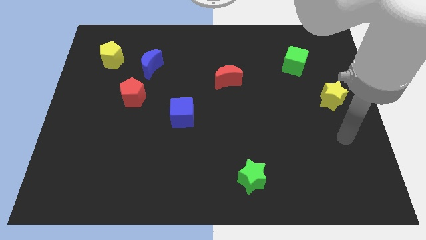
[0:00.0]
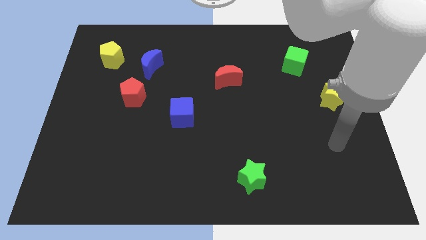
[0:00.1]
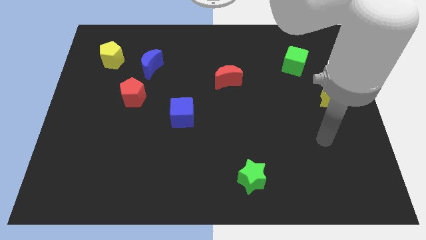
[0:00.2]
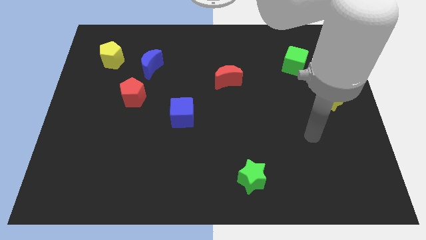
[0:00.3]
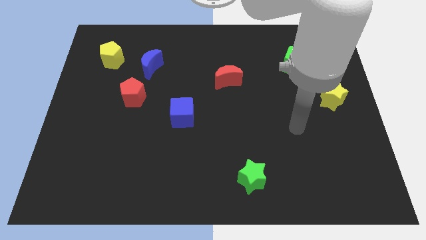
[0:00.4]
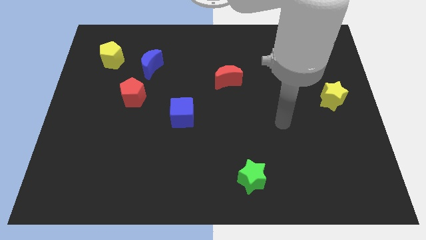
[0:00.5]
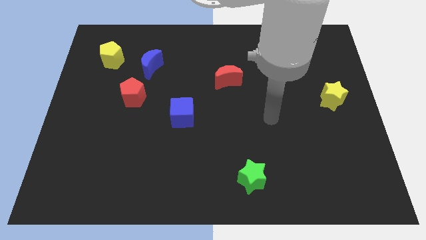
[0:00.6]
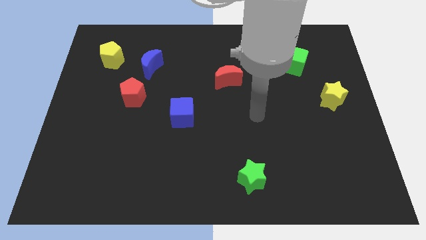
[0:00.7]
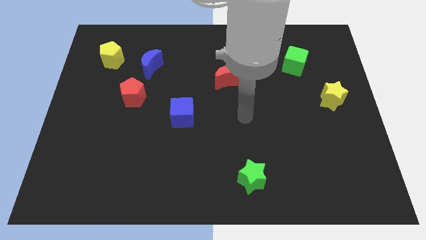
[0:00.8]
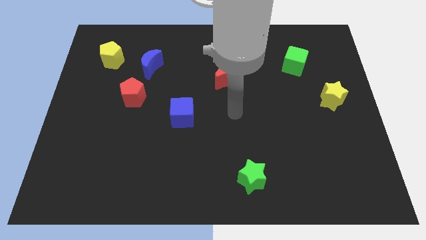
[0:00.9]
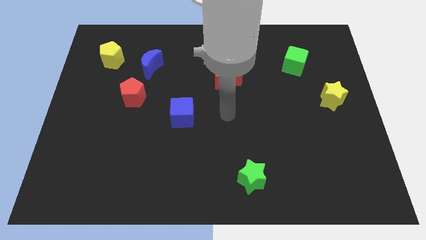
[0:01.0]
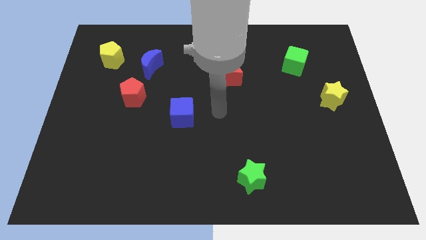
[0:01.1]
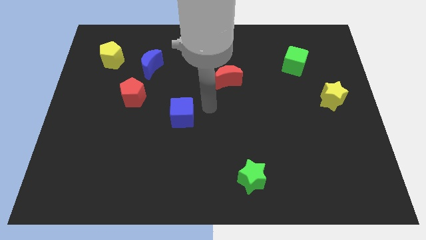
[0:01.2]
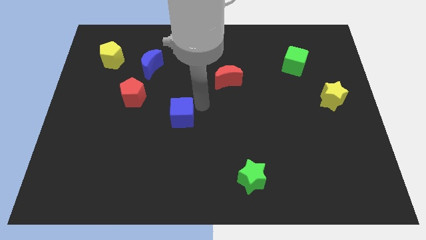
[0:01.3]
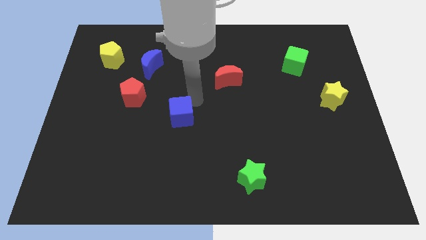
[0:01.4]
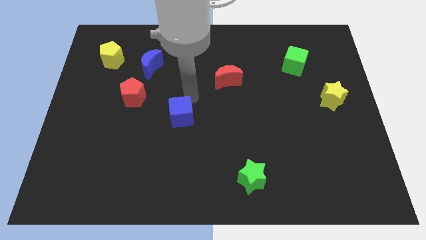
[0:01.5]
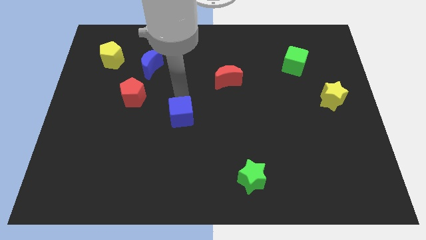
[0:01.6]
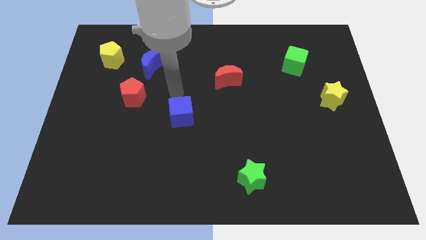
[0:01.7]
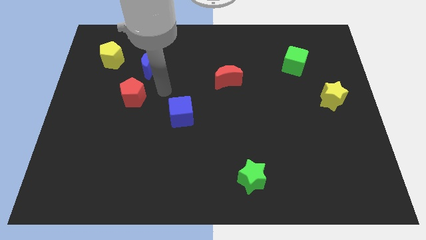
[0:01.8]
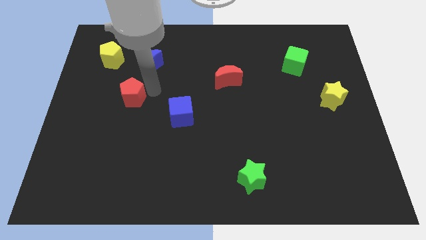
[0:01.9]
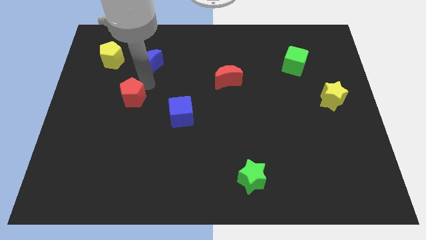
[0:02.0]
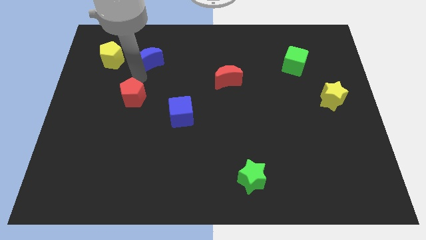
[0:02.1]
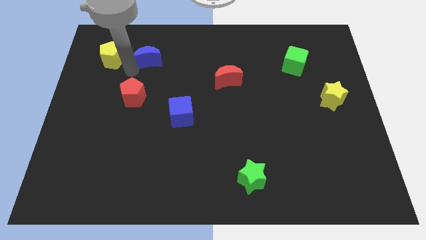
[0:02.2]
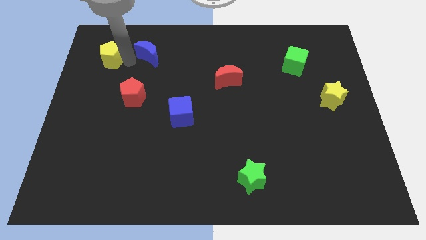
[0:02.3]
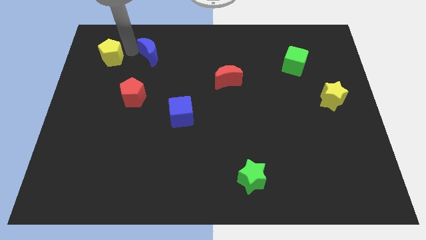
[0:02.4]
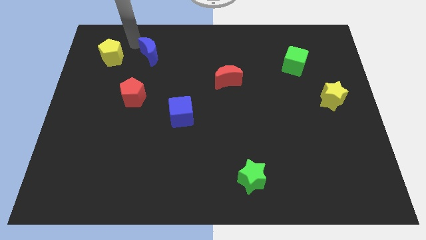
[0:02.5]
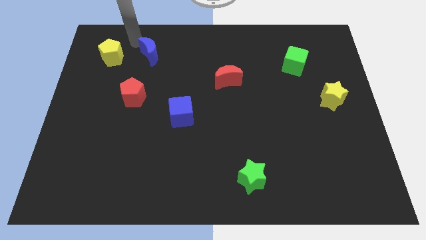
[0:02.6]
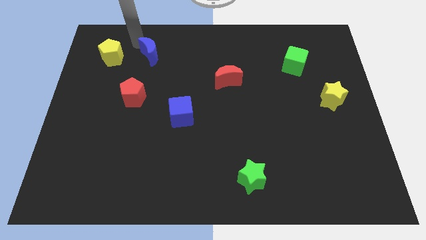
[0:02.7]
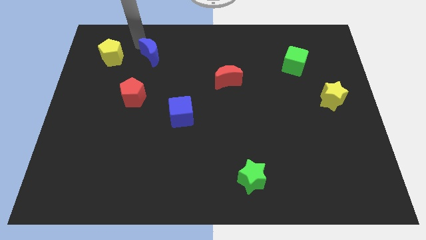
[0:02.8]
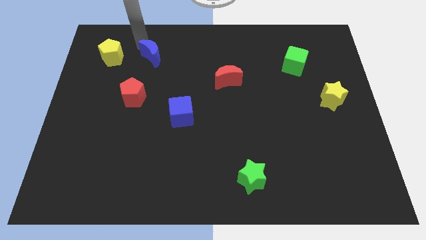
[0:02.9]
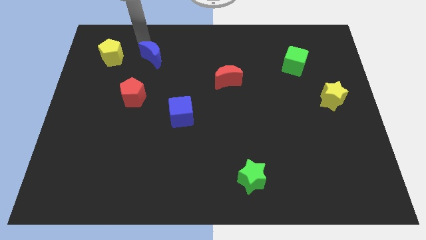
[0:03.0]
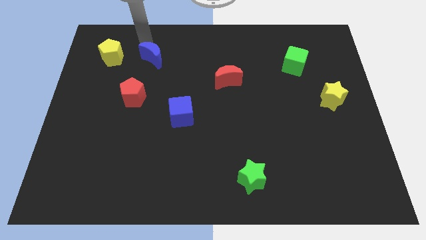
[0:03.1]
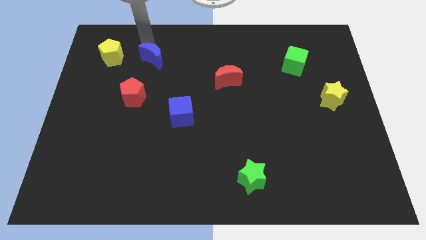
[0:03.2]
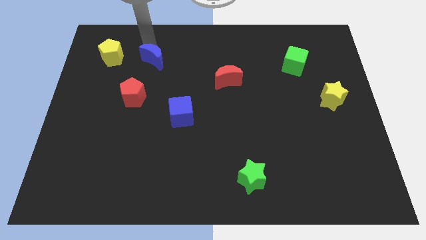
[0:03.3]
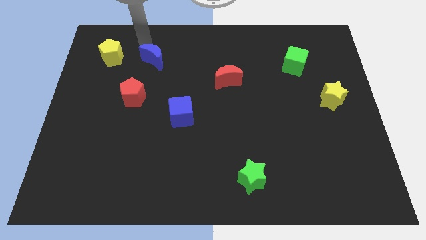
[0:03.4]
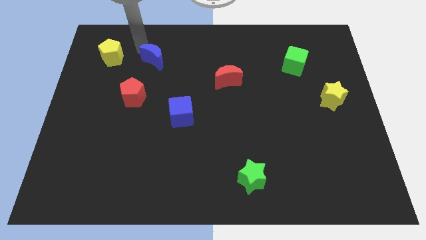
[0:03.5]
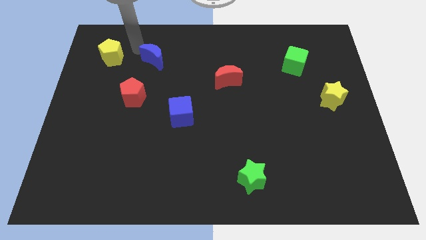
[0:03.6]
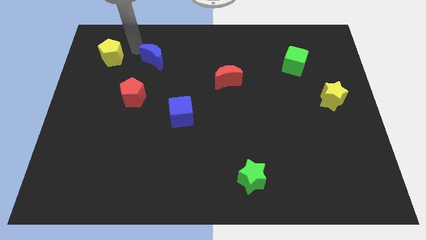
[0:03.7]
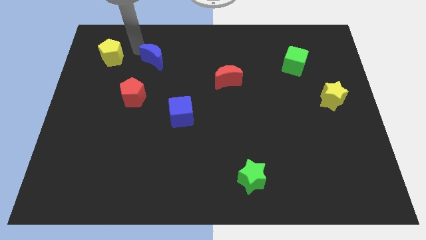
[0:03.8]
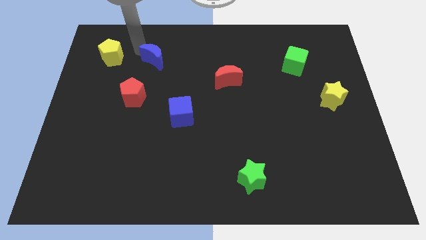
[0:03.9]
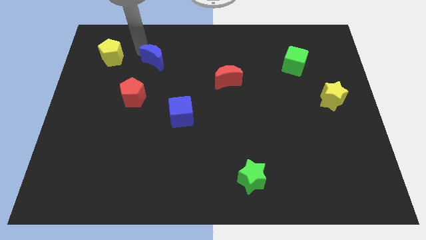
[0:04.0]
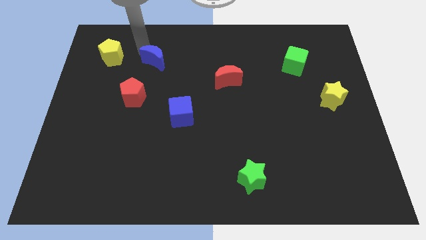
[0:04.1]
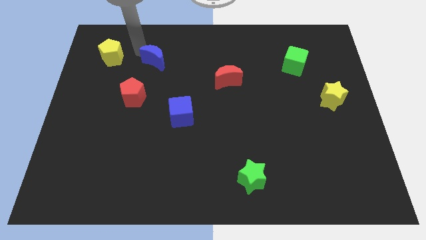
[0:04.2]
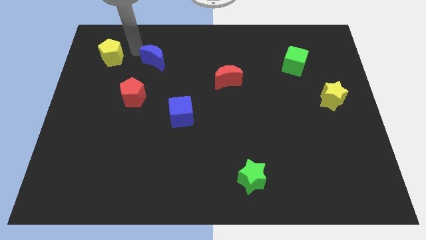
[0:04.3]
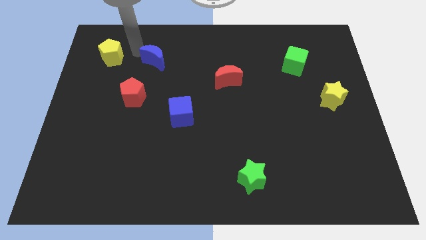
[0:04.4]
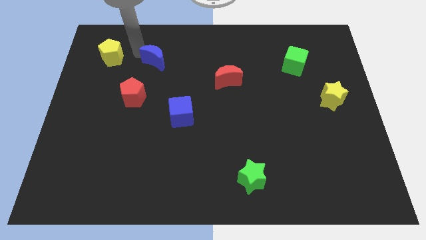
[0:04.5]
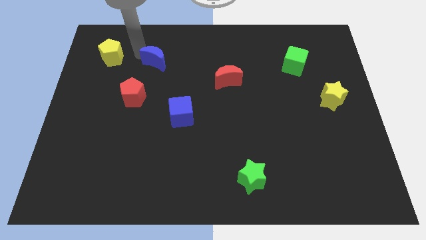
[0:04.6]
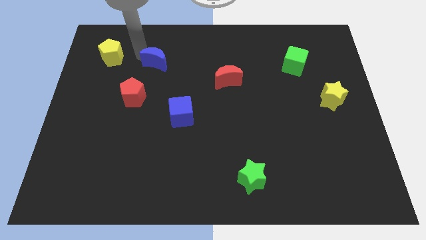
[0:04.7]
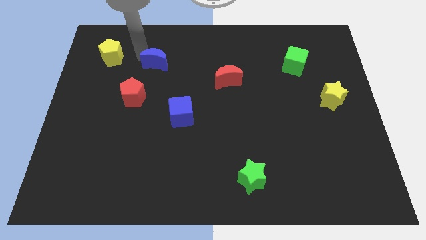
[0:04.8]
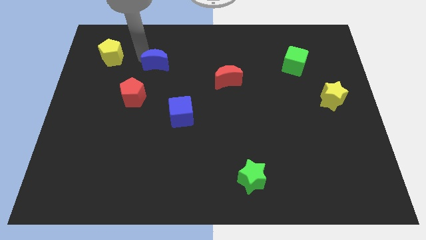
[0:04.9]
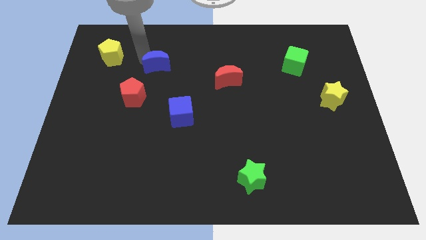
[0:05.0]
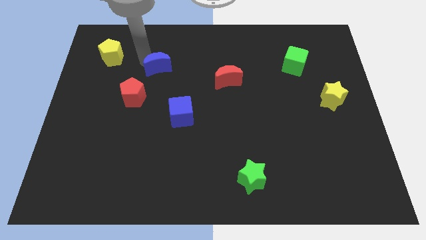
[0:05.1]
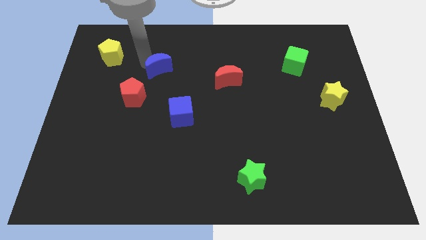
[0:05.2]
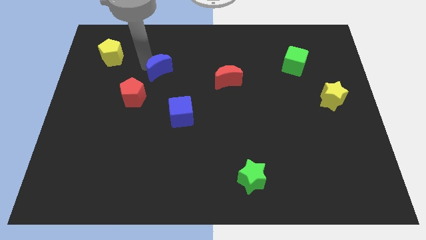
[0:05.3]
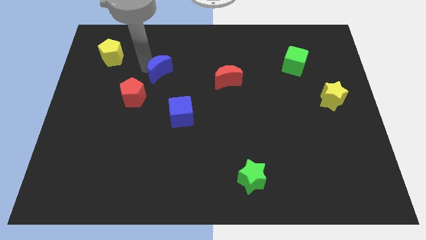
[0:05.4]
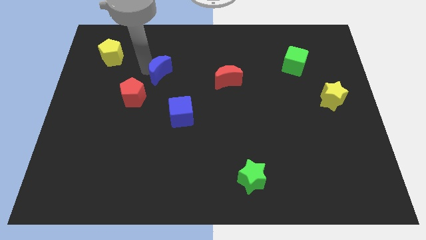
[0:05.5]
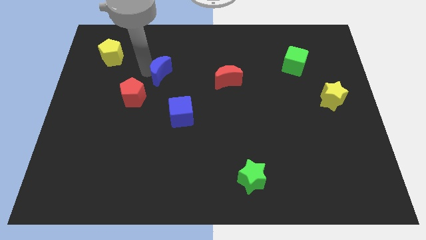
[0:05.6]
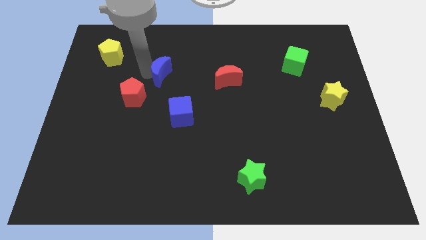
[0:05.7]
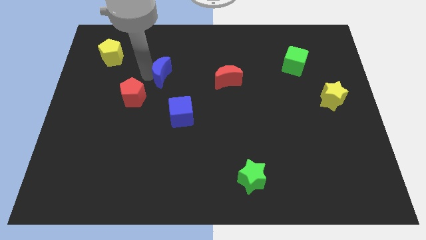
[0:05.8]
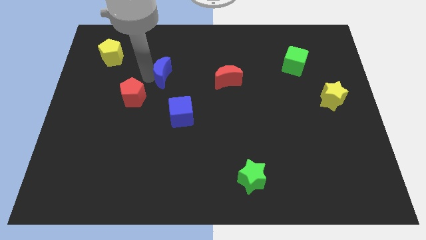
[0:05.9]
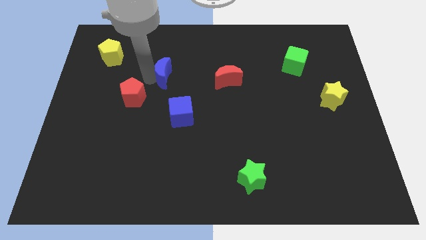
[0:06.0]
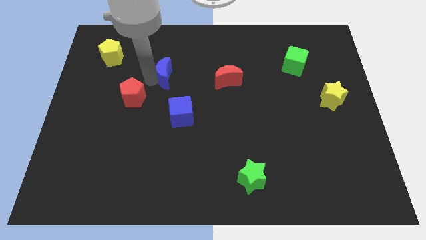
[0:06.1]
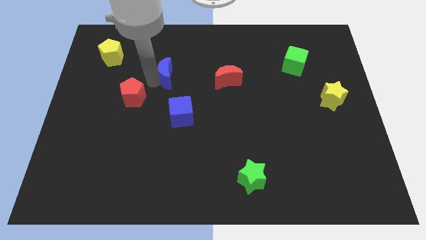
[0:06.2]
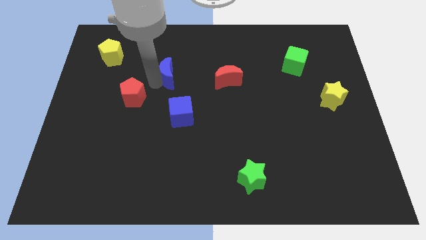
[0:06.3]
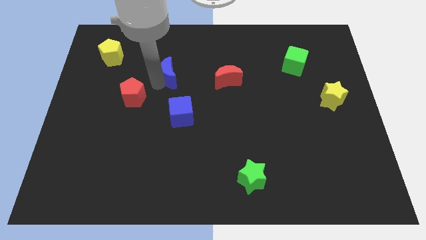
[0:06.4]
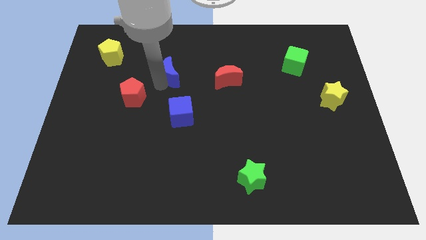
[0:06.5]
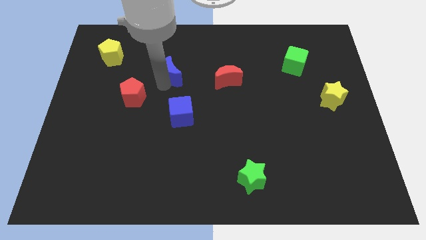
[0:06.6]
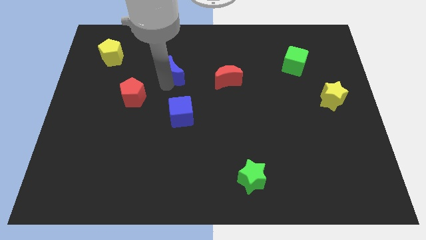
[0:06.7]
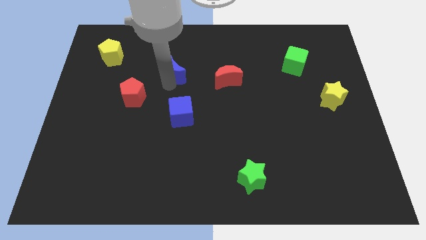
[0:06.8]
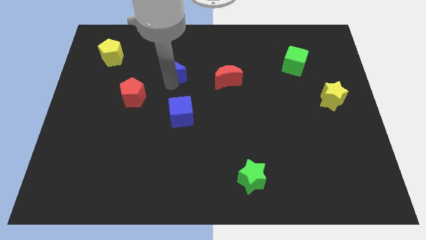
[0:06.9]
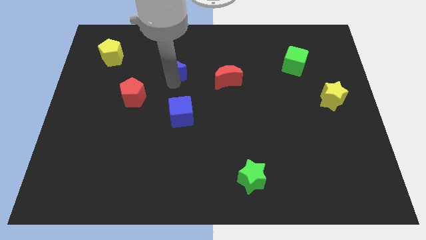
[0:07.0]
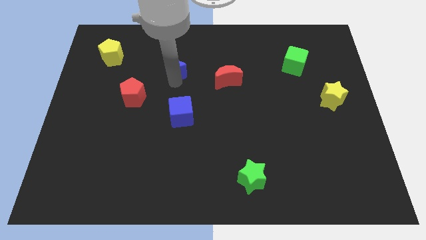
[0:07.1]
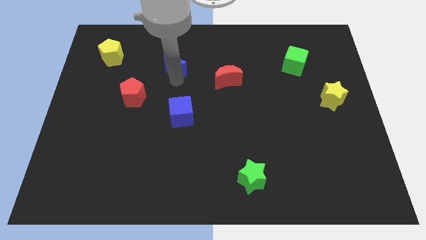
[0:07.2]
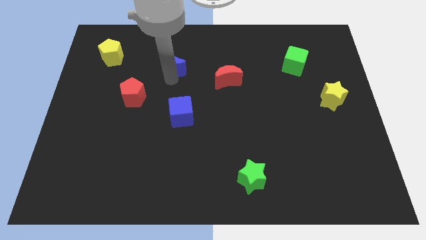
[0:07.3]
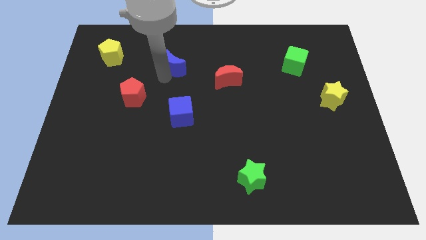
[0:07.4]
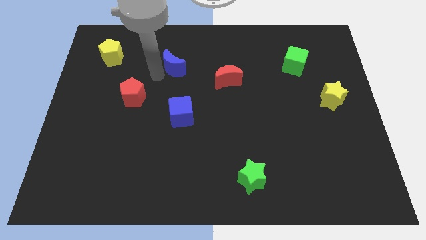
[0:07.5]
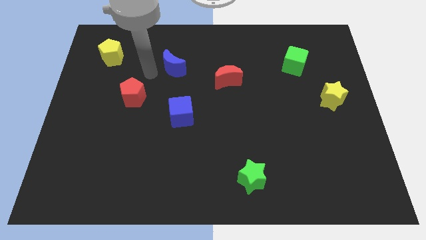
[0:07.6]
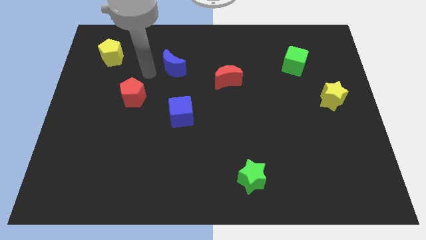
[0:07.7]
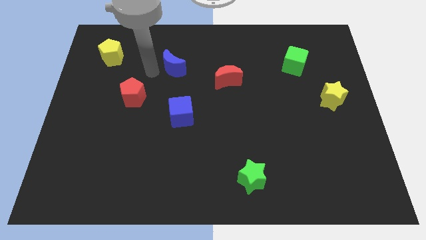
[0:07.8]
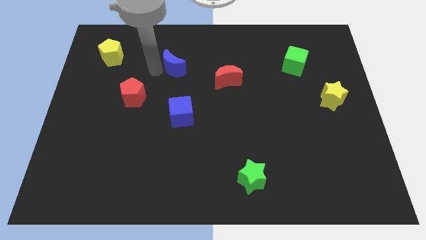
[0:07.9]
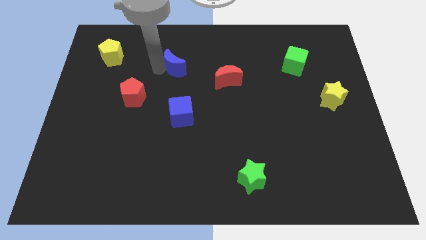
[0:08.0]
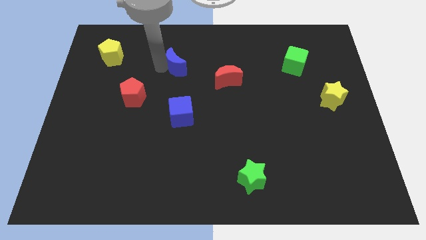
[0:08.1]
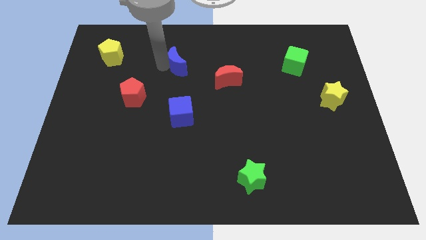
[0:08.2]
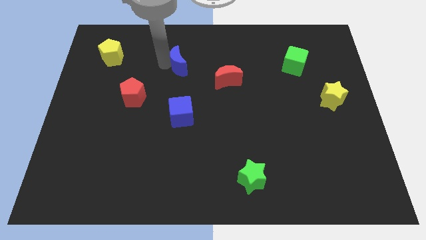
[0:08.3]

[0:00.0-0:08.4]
slide the blue moon right a little
